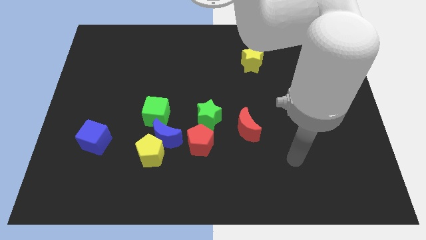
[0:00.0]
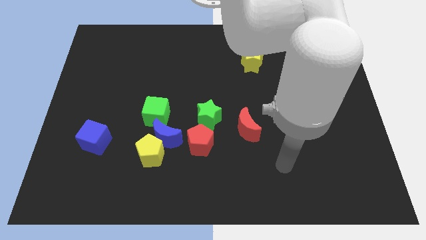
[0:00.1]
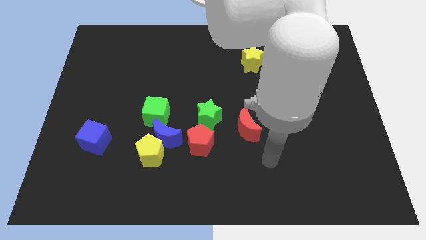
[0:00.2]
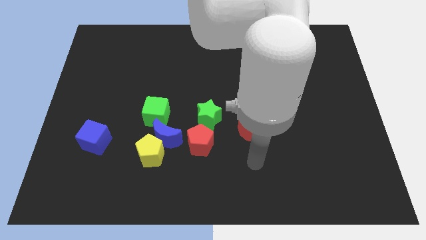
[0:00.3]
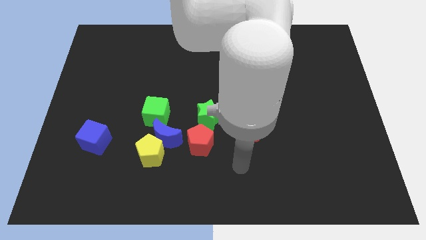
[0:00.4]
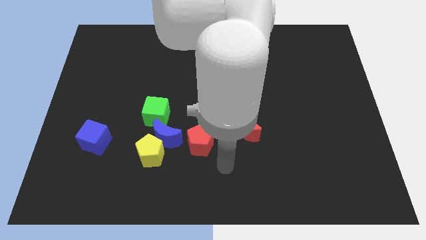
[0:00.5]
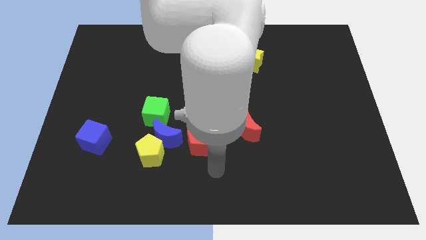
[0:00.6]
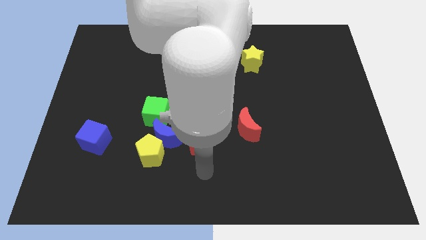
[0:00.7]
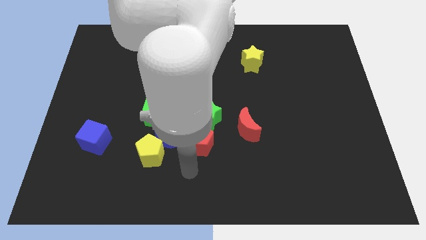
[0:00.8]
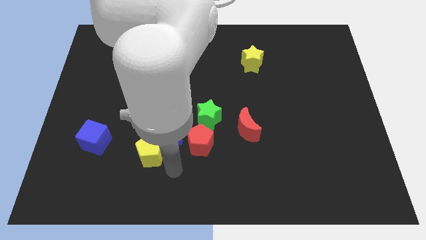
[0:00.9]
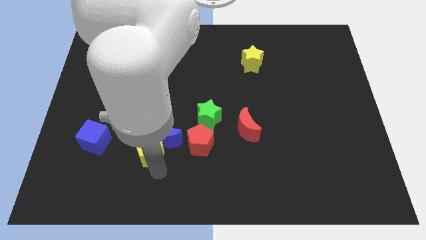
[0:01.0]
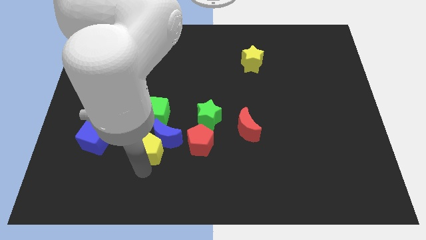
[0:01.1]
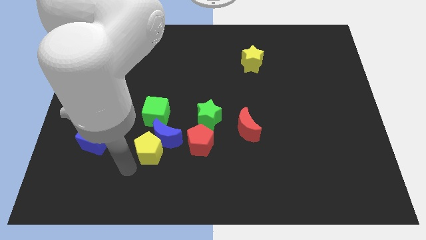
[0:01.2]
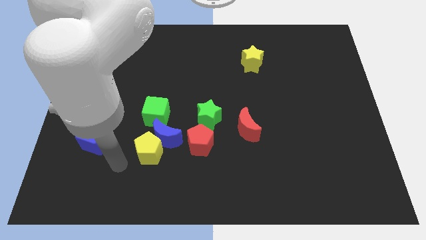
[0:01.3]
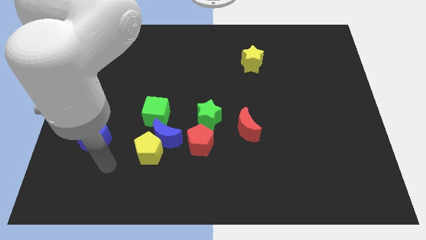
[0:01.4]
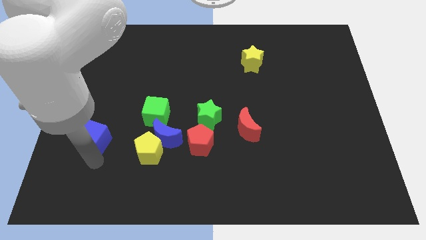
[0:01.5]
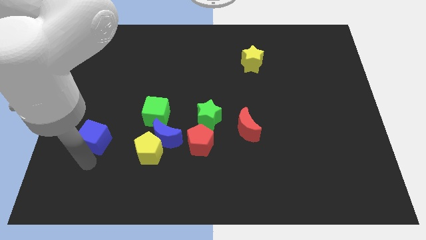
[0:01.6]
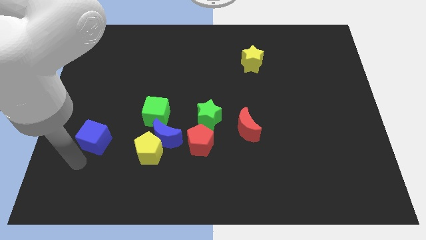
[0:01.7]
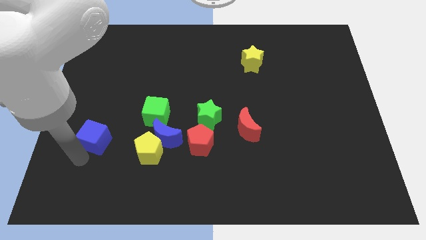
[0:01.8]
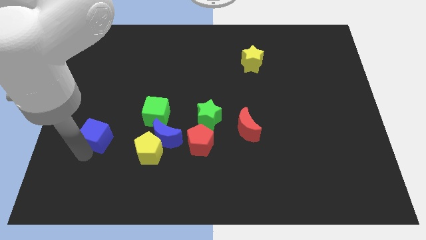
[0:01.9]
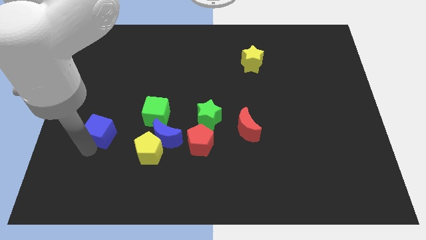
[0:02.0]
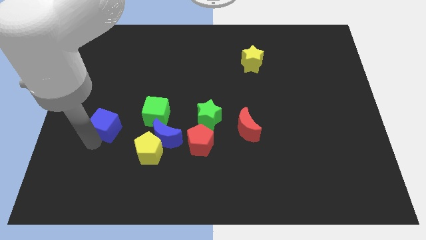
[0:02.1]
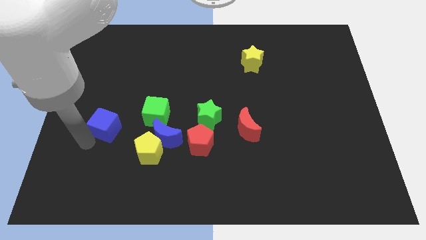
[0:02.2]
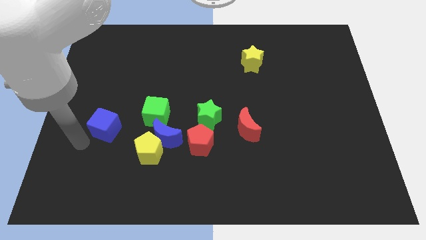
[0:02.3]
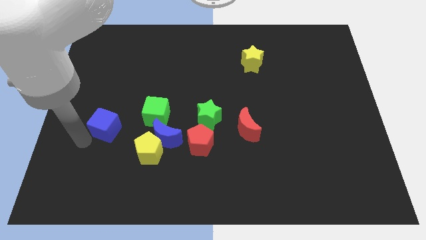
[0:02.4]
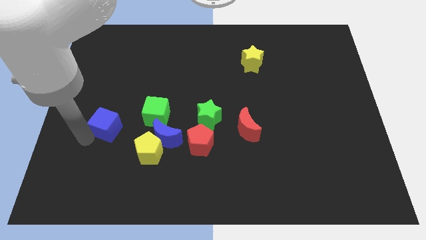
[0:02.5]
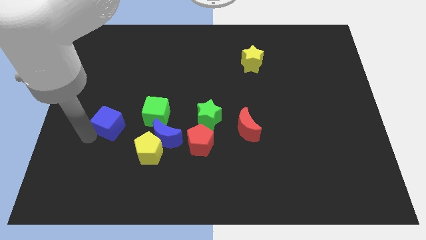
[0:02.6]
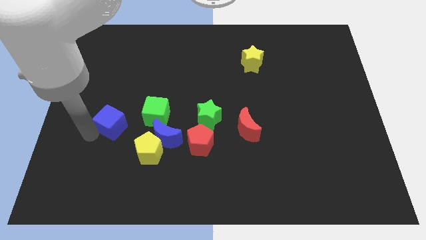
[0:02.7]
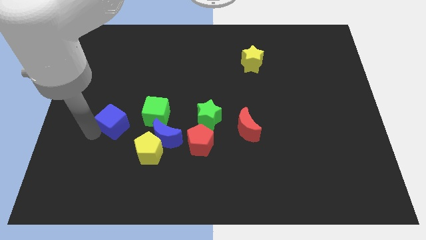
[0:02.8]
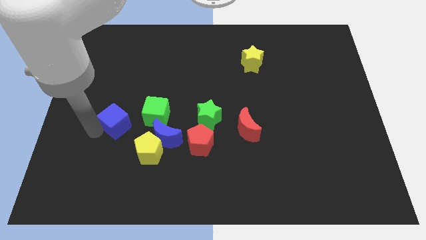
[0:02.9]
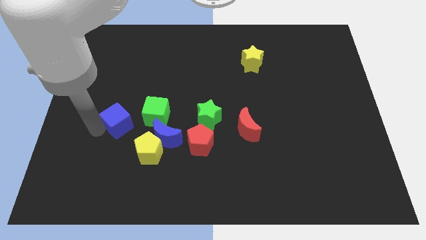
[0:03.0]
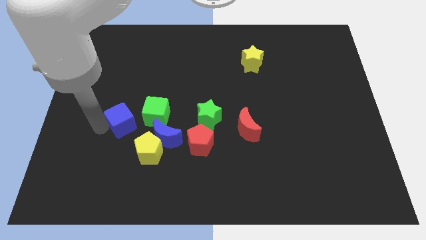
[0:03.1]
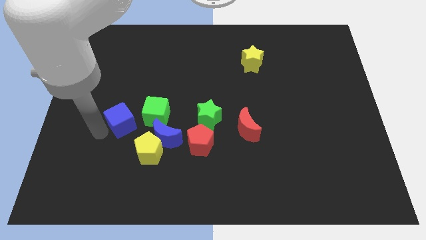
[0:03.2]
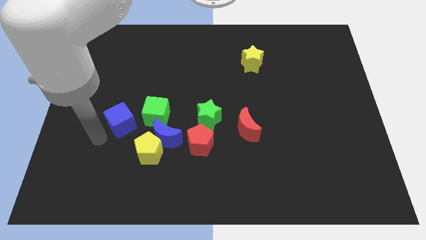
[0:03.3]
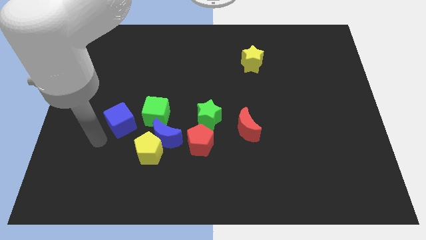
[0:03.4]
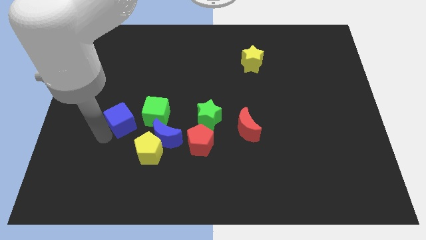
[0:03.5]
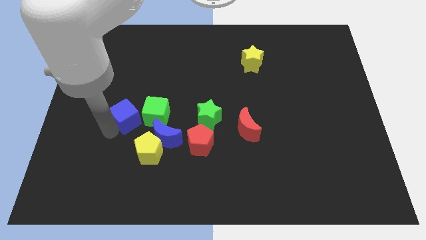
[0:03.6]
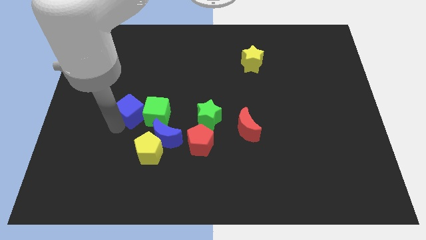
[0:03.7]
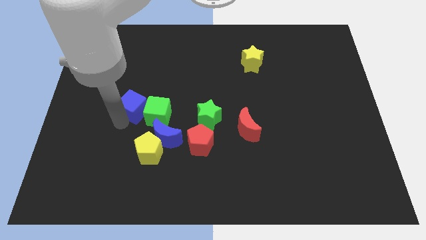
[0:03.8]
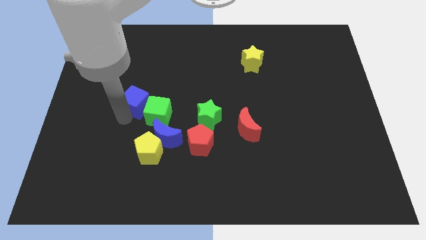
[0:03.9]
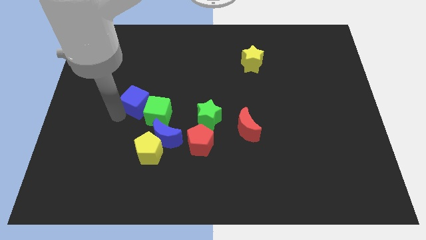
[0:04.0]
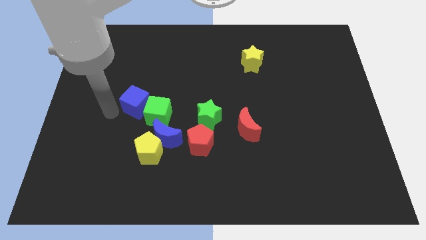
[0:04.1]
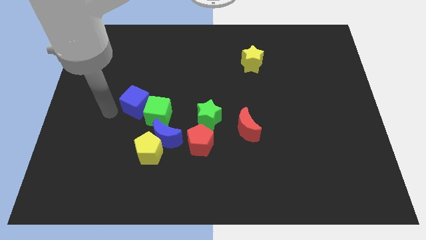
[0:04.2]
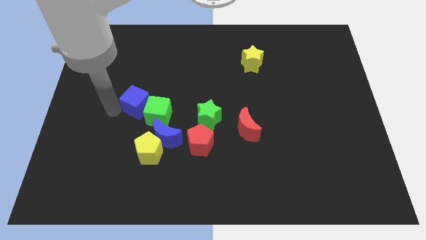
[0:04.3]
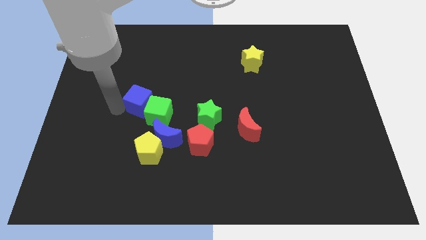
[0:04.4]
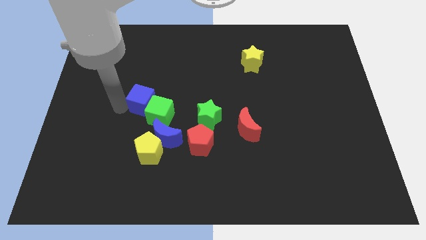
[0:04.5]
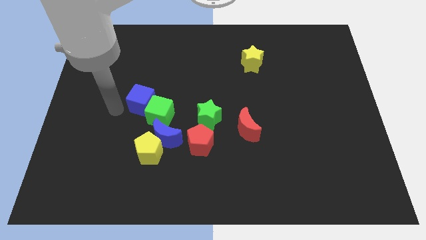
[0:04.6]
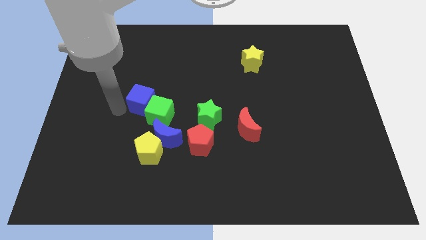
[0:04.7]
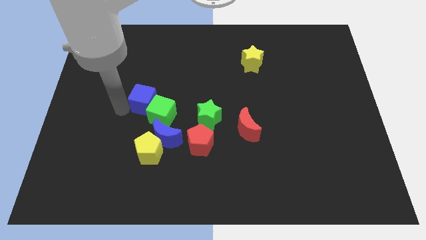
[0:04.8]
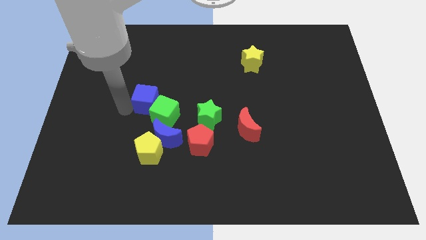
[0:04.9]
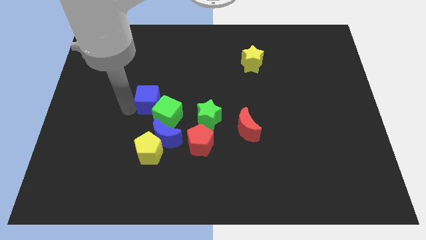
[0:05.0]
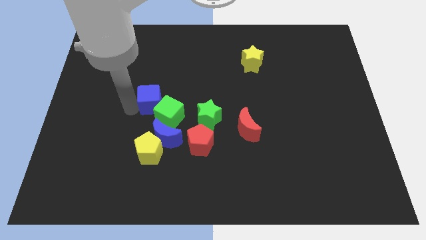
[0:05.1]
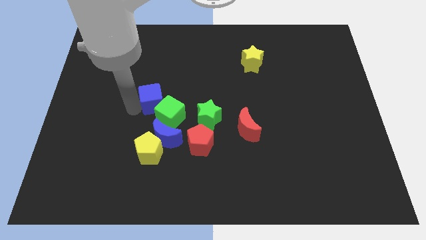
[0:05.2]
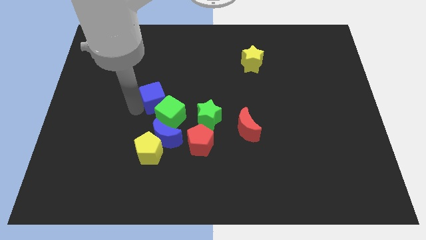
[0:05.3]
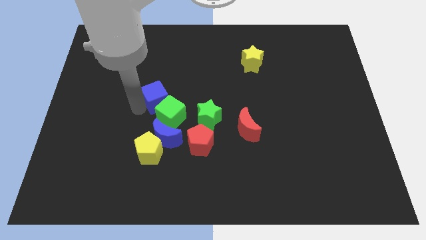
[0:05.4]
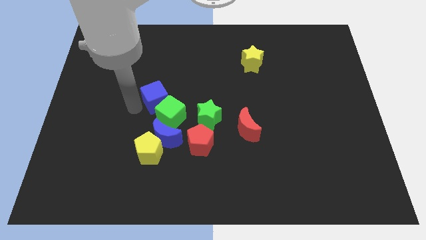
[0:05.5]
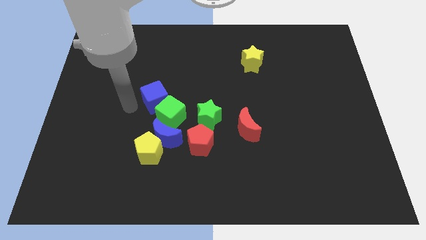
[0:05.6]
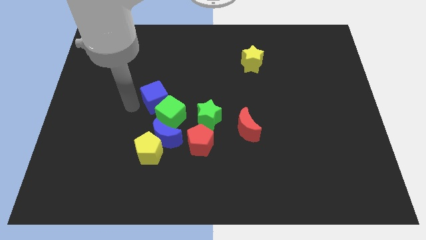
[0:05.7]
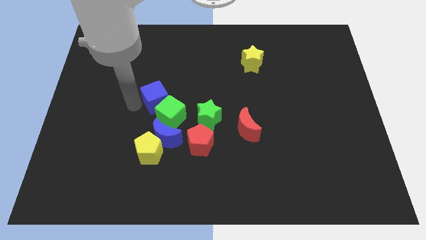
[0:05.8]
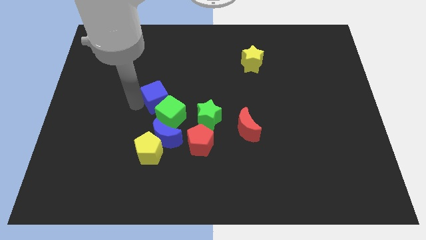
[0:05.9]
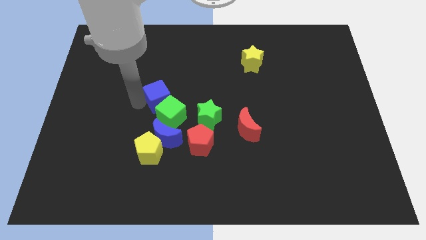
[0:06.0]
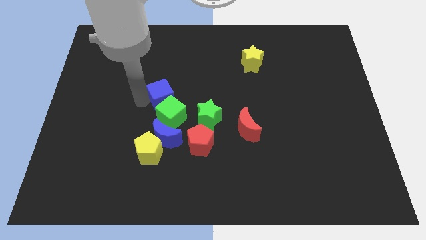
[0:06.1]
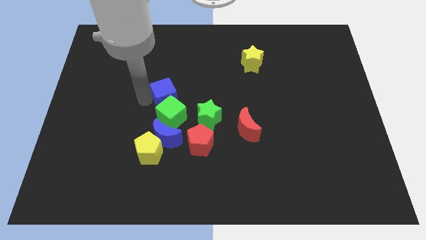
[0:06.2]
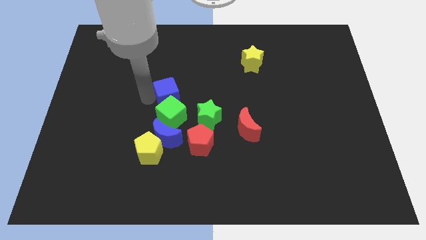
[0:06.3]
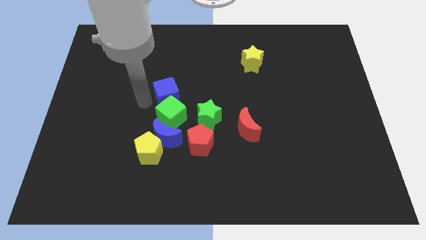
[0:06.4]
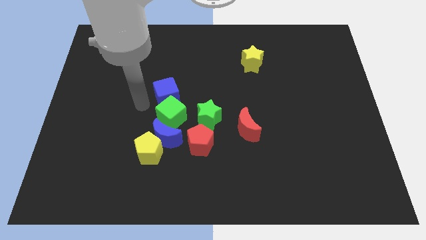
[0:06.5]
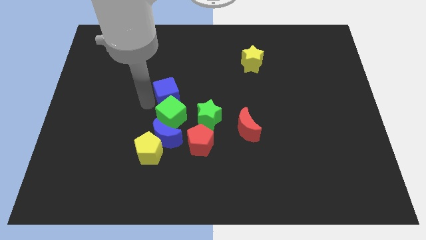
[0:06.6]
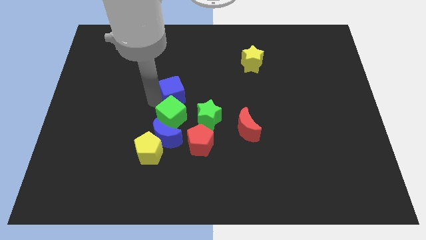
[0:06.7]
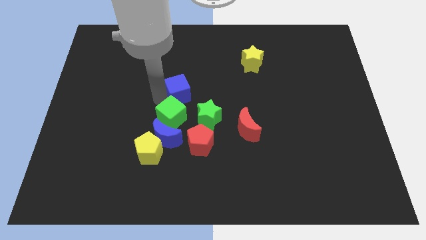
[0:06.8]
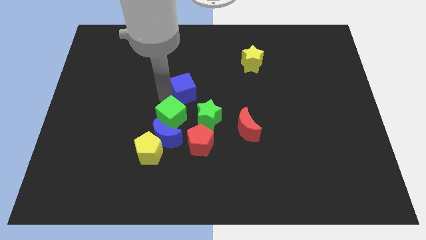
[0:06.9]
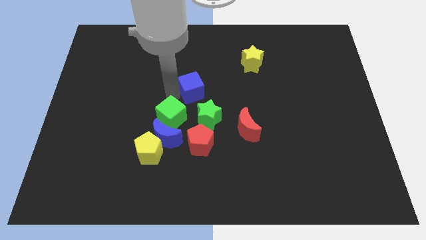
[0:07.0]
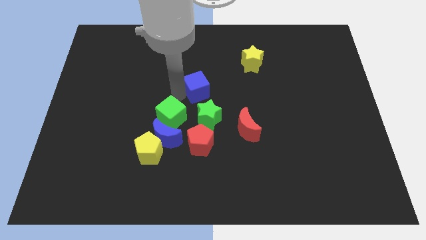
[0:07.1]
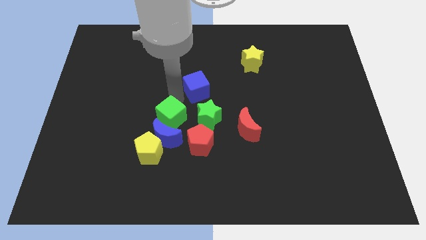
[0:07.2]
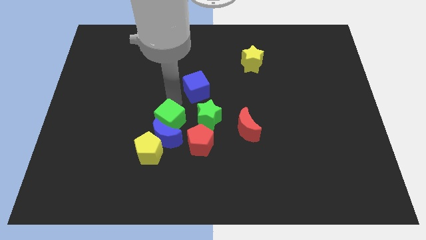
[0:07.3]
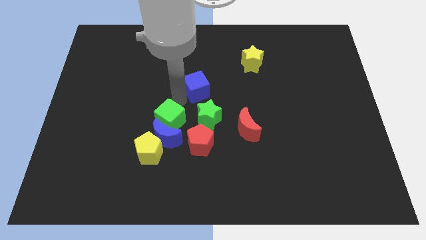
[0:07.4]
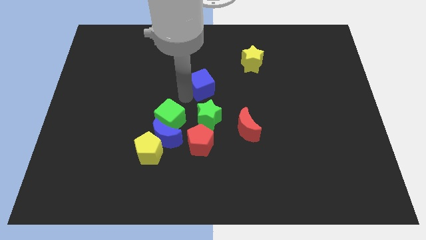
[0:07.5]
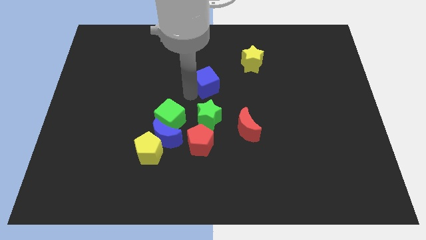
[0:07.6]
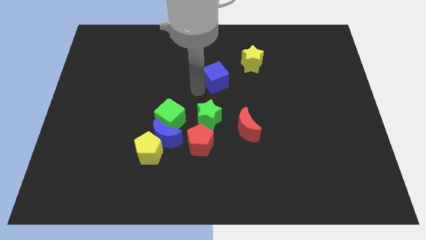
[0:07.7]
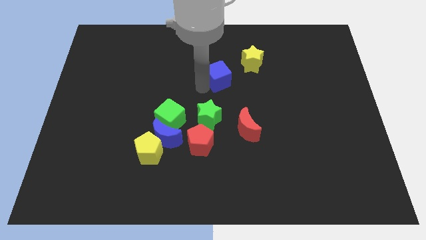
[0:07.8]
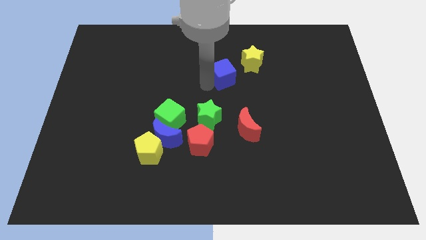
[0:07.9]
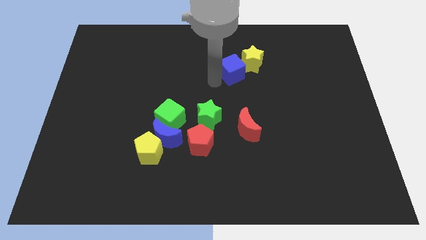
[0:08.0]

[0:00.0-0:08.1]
put the blue cube to the yellow star
